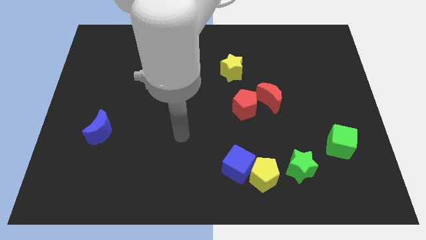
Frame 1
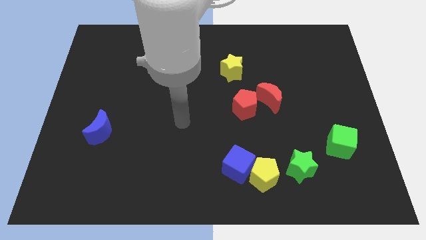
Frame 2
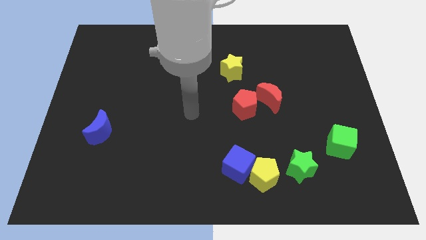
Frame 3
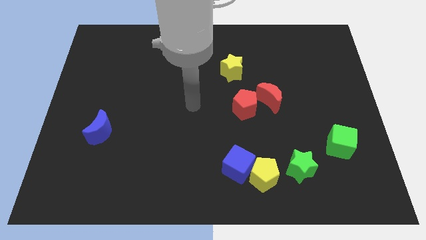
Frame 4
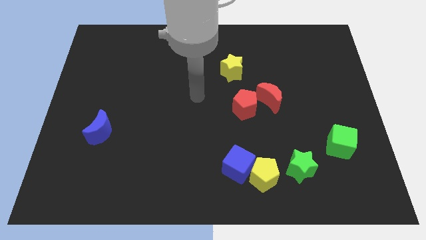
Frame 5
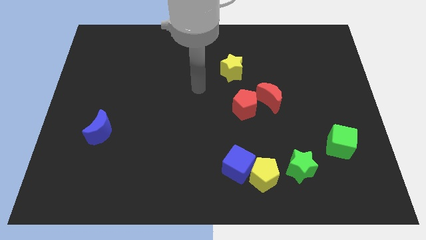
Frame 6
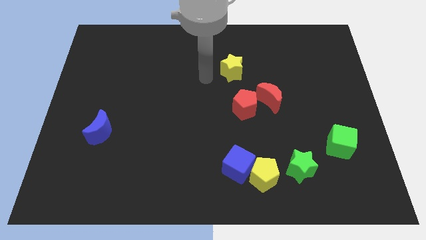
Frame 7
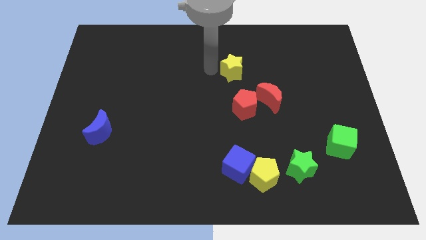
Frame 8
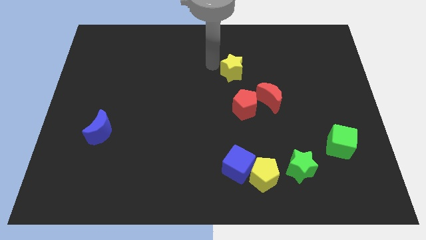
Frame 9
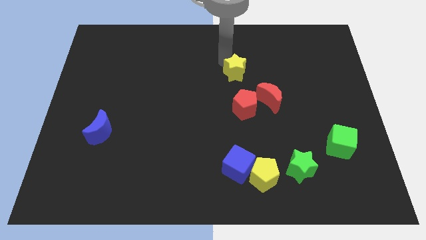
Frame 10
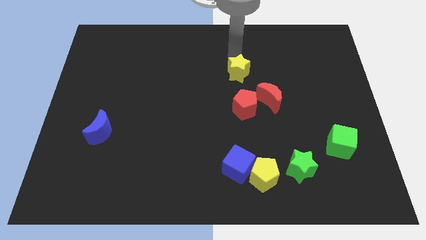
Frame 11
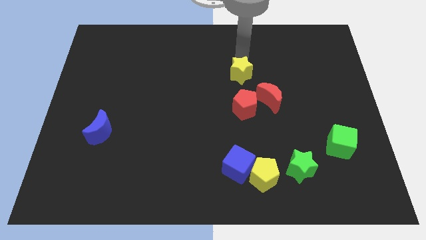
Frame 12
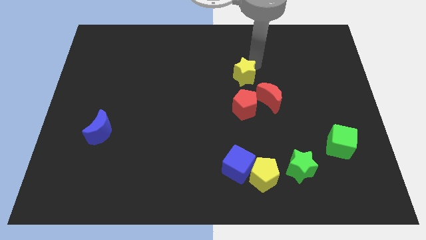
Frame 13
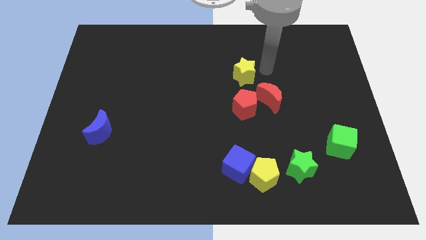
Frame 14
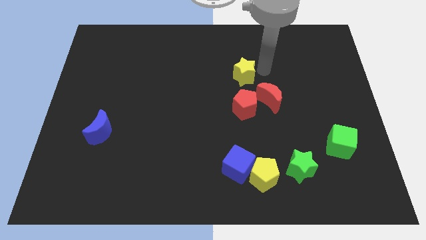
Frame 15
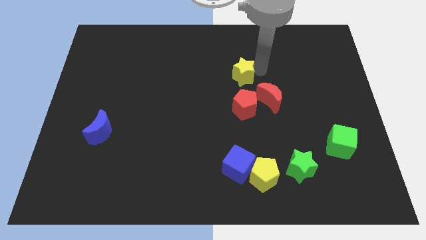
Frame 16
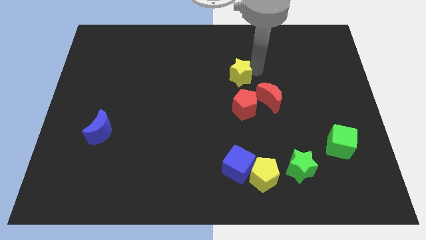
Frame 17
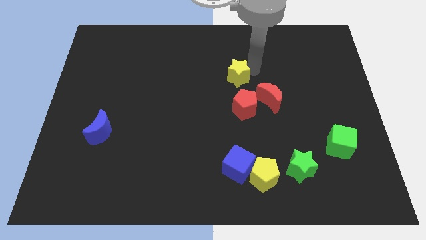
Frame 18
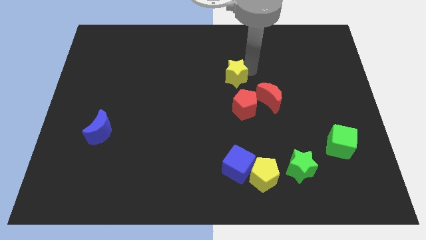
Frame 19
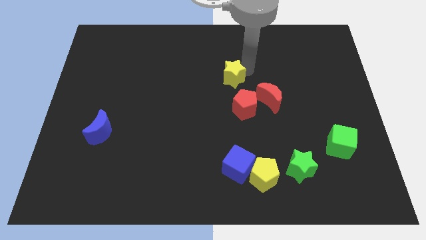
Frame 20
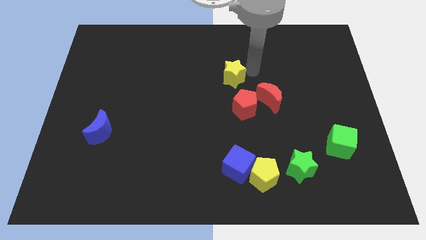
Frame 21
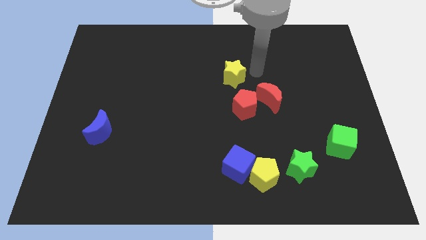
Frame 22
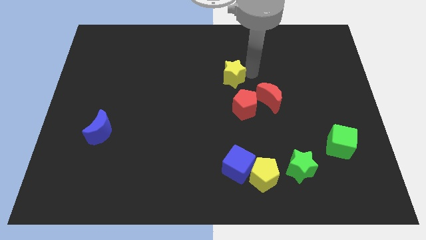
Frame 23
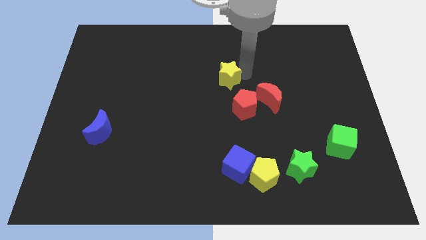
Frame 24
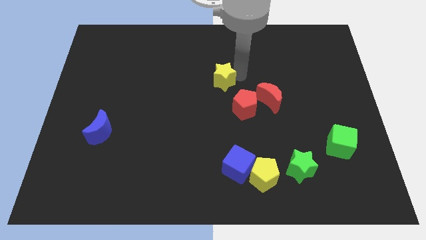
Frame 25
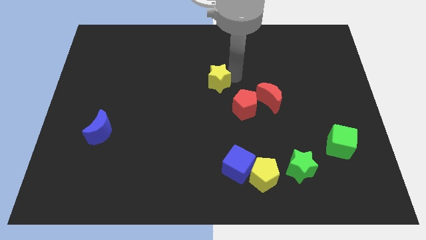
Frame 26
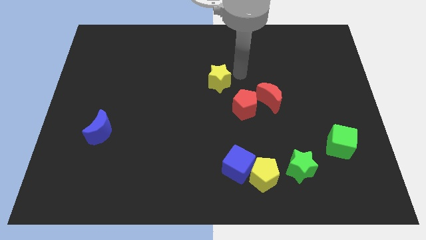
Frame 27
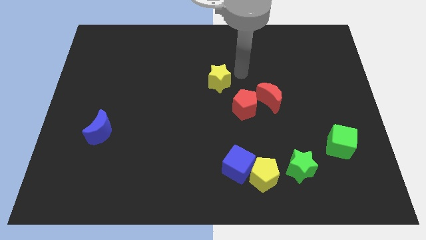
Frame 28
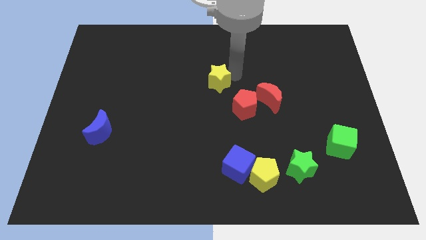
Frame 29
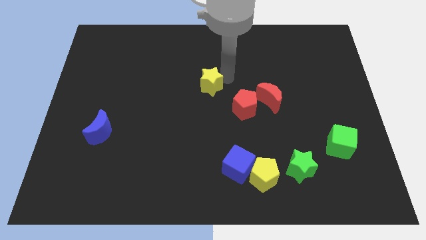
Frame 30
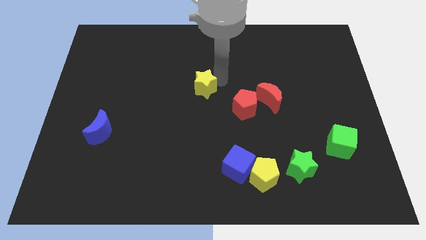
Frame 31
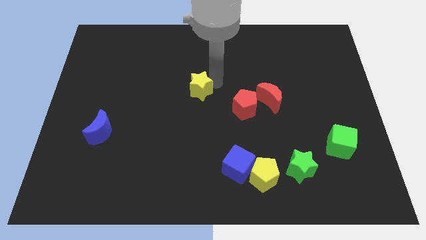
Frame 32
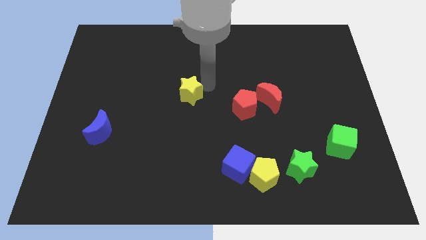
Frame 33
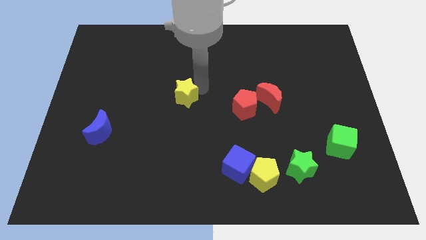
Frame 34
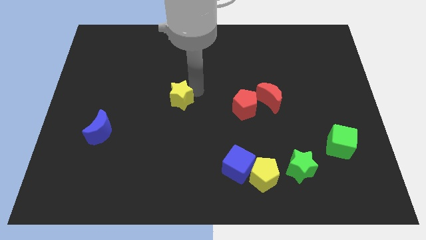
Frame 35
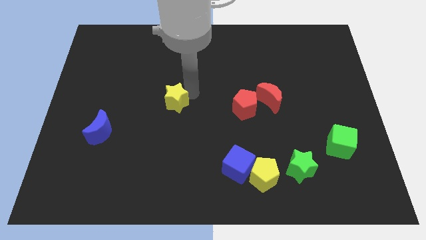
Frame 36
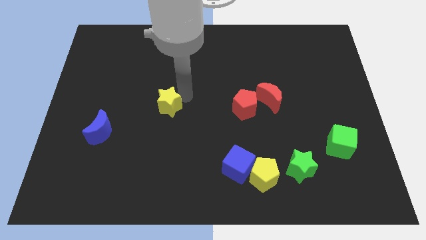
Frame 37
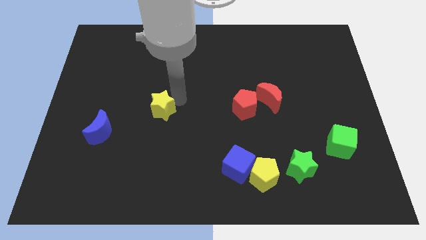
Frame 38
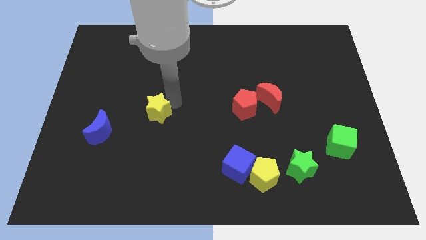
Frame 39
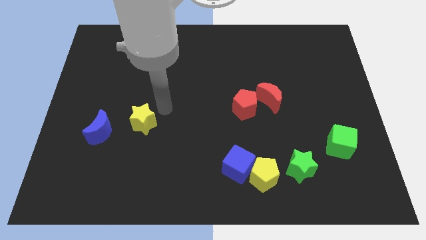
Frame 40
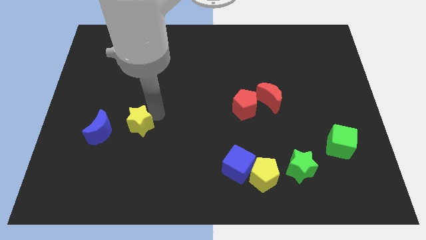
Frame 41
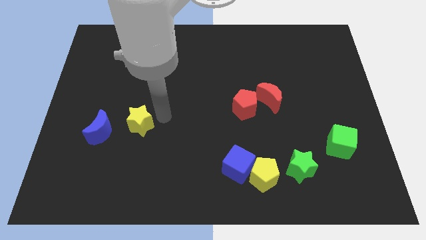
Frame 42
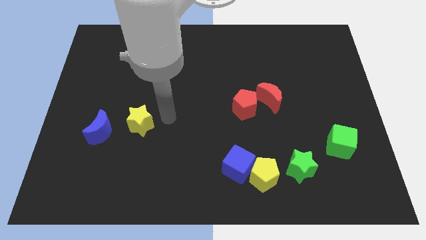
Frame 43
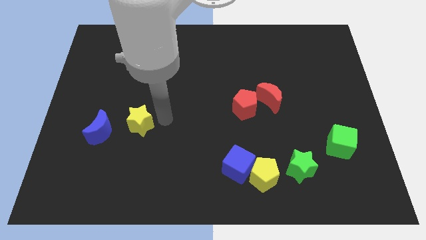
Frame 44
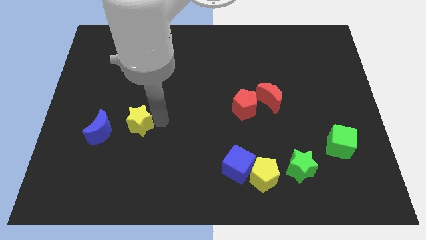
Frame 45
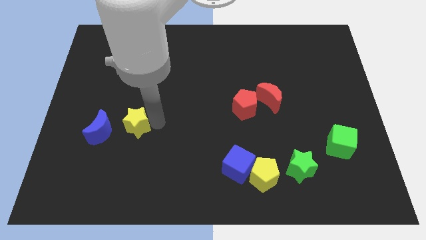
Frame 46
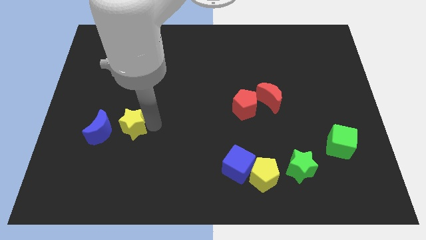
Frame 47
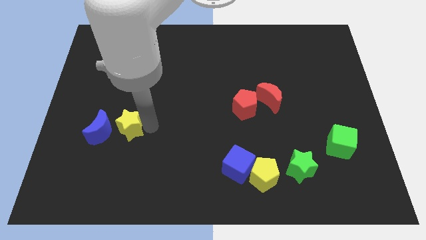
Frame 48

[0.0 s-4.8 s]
slide the yellow star towards the blue moon

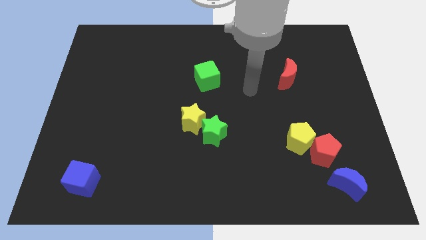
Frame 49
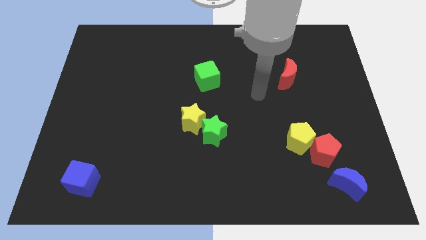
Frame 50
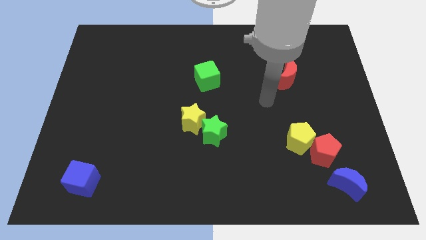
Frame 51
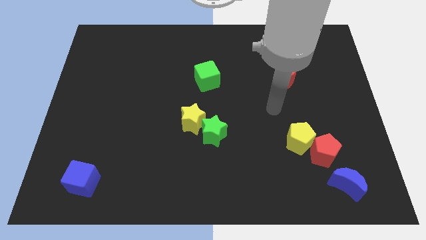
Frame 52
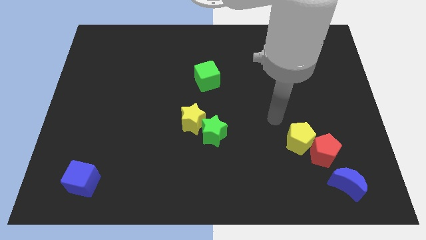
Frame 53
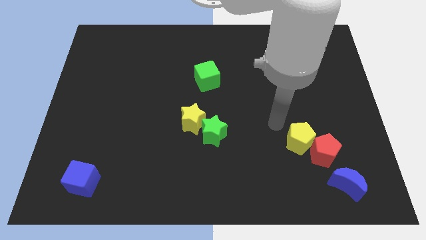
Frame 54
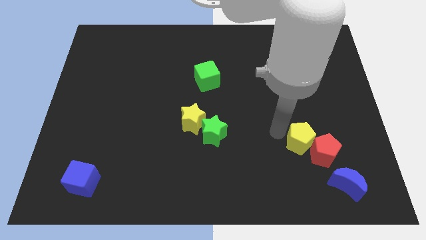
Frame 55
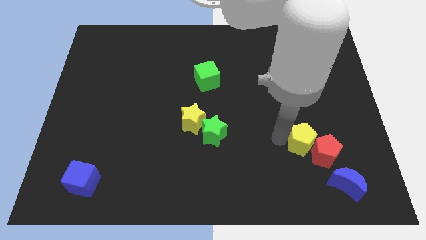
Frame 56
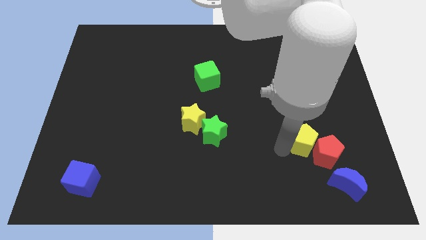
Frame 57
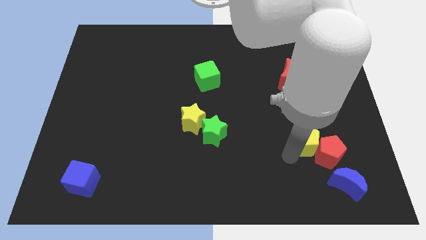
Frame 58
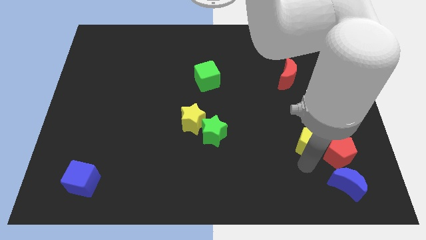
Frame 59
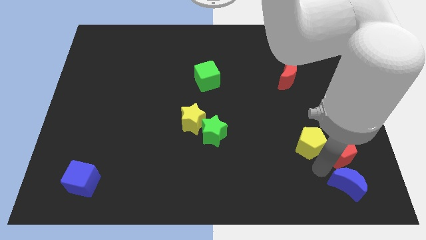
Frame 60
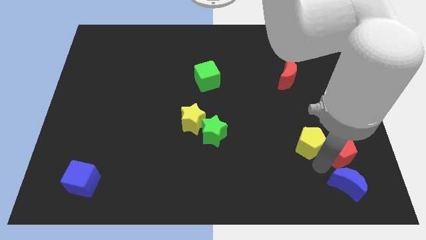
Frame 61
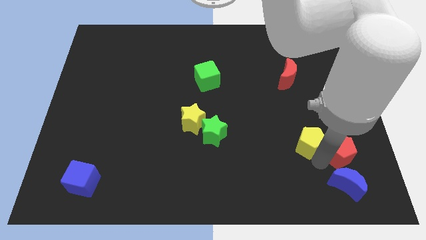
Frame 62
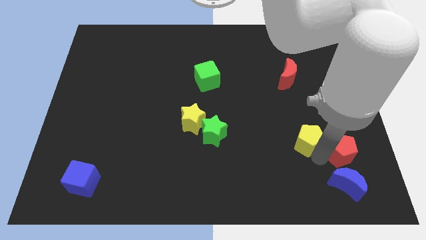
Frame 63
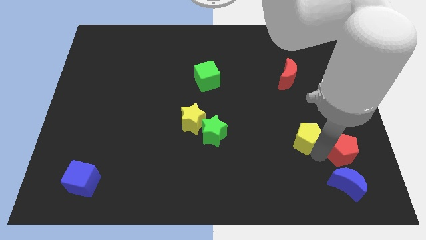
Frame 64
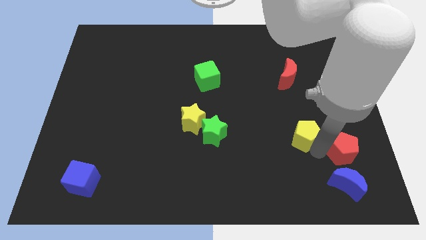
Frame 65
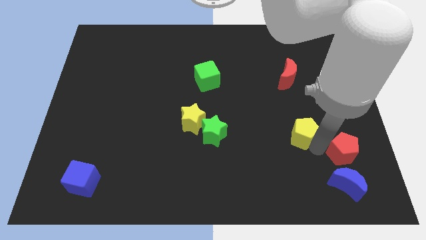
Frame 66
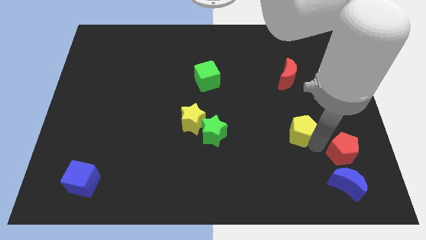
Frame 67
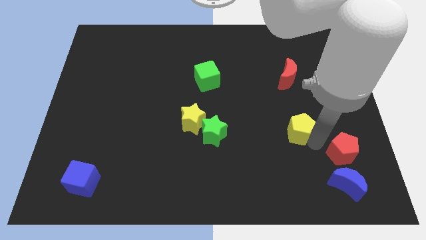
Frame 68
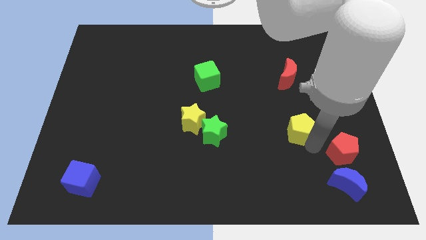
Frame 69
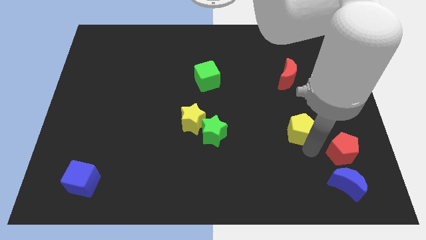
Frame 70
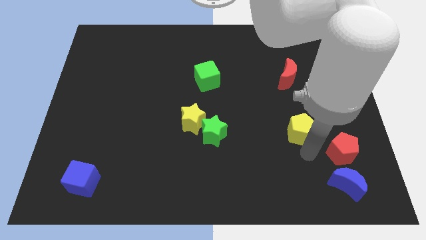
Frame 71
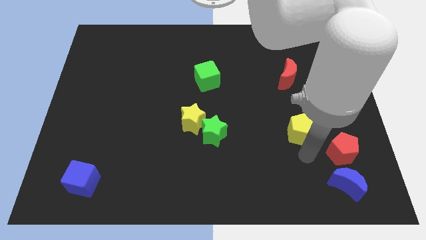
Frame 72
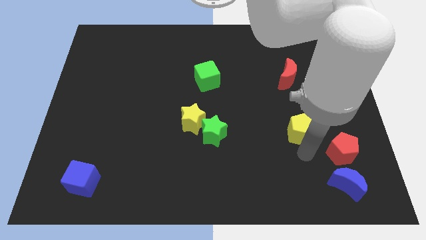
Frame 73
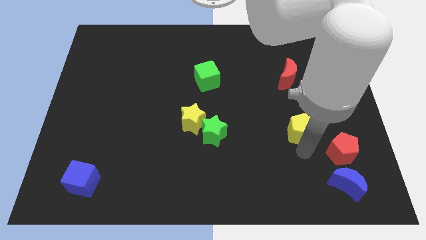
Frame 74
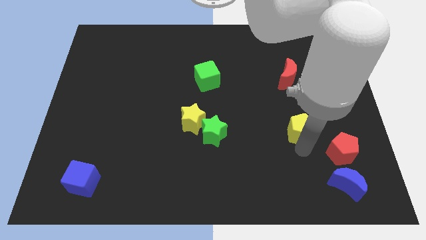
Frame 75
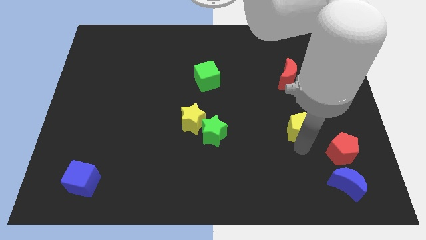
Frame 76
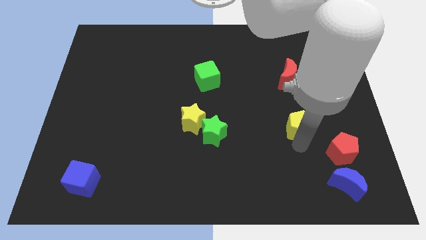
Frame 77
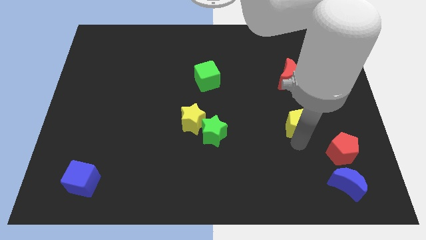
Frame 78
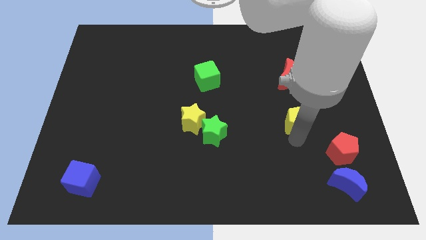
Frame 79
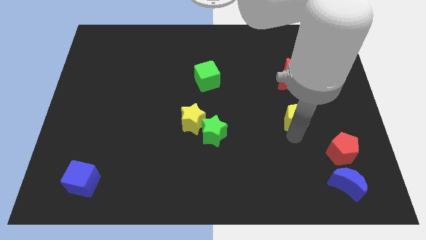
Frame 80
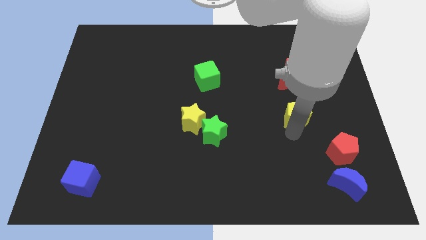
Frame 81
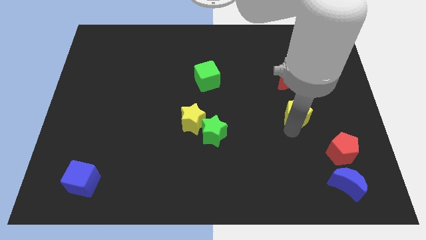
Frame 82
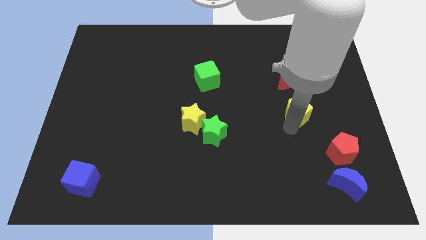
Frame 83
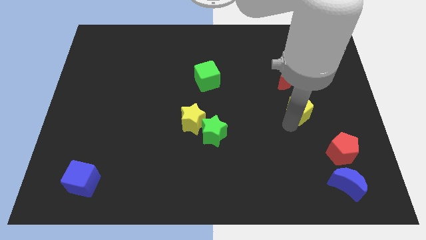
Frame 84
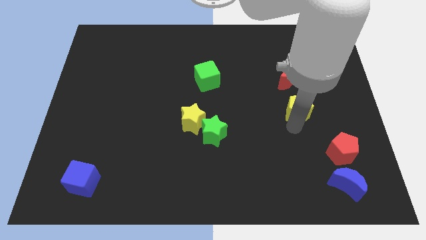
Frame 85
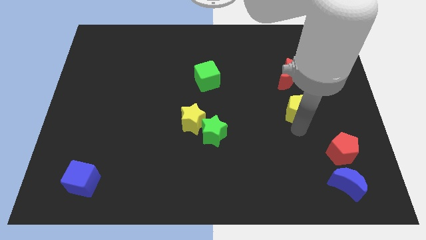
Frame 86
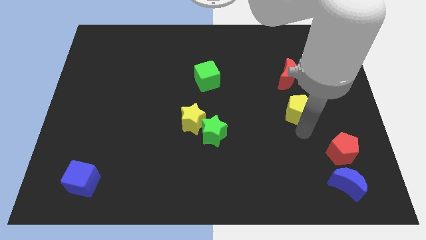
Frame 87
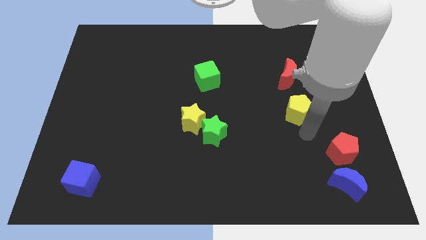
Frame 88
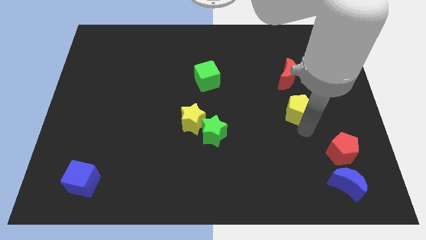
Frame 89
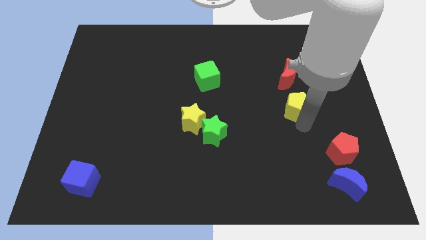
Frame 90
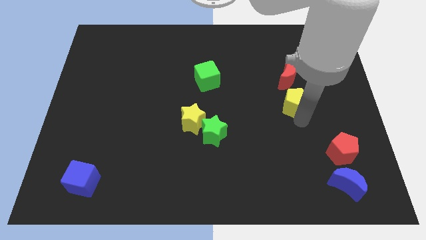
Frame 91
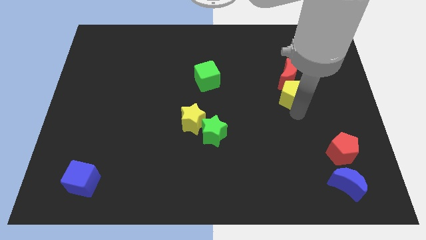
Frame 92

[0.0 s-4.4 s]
push the yellow pentagon towards the red moon
